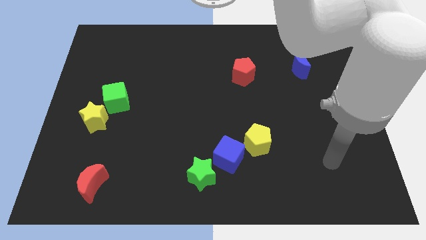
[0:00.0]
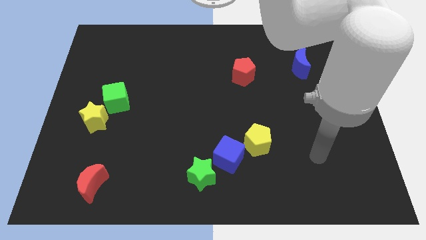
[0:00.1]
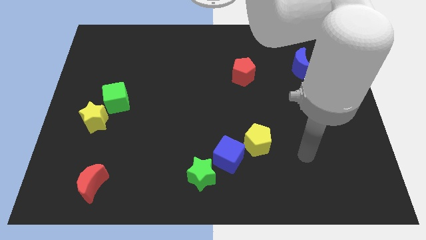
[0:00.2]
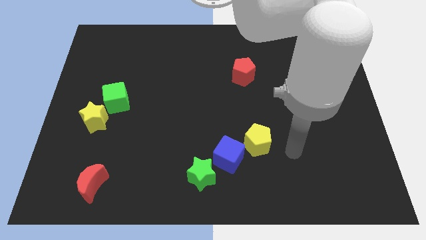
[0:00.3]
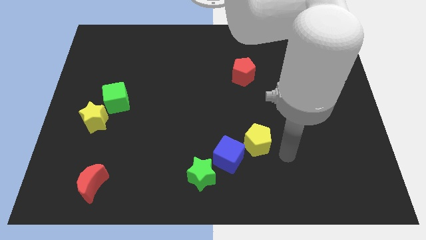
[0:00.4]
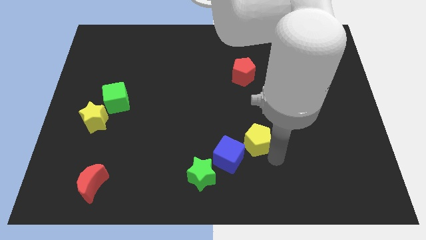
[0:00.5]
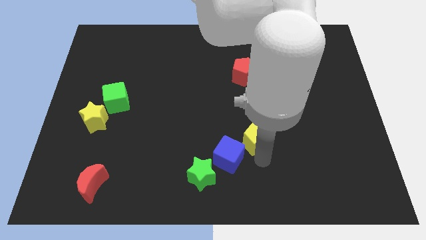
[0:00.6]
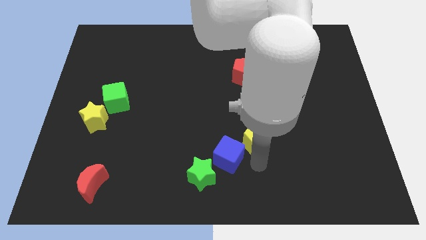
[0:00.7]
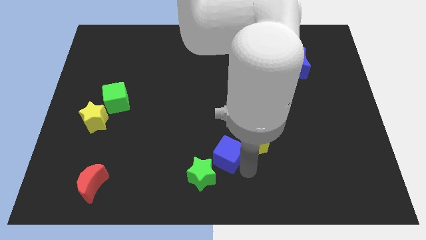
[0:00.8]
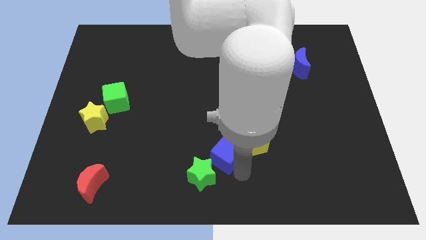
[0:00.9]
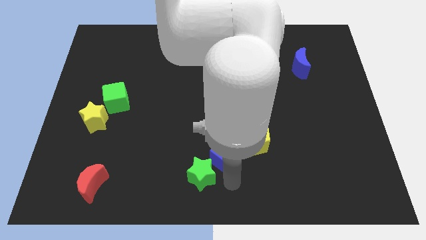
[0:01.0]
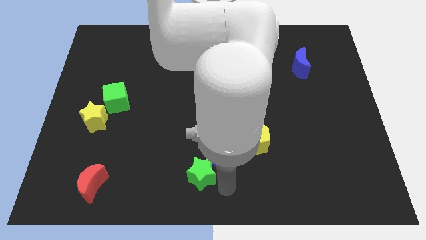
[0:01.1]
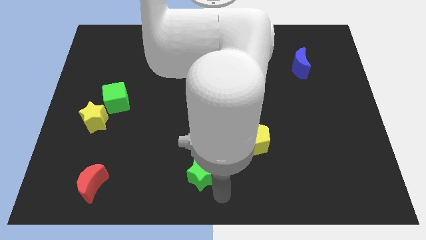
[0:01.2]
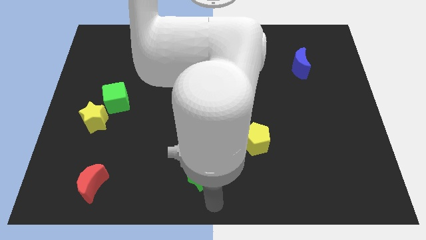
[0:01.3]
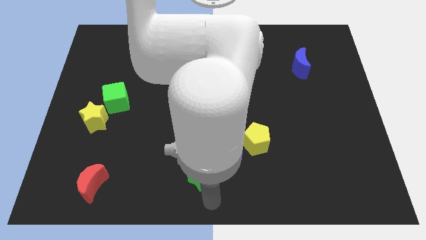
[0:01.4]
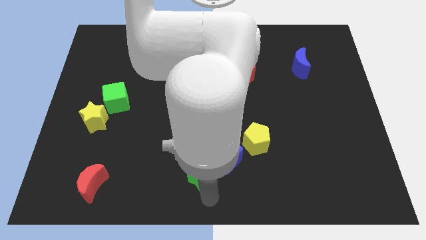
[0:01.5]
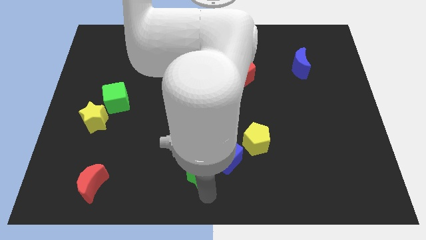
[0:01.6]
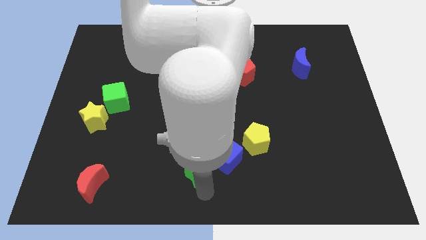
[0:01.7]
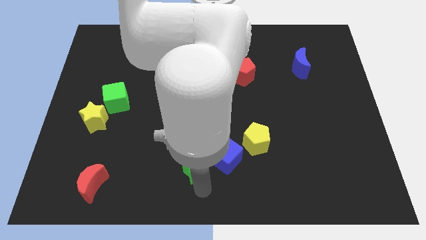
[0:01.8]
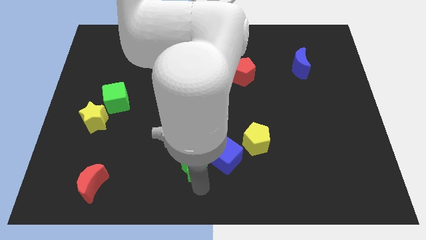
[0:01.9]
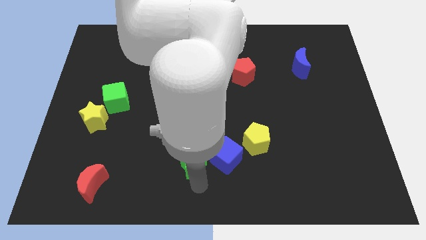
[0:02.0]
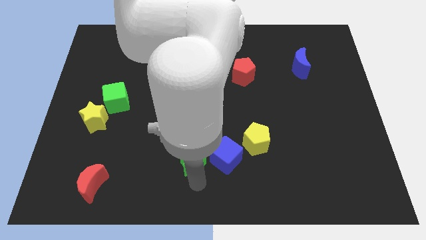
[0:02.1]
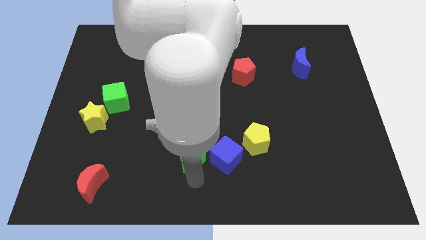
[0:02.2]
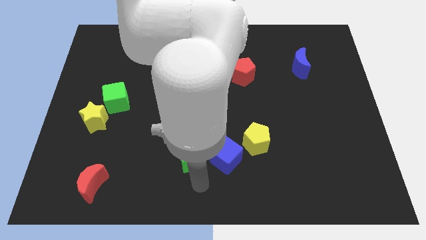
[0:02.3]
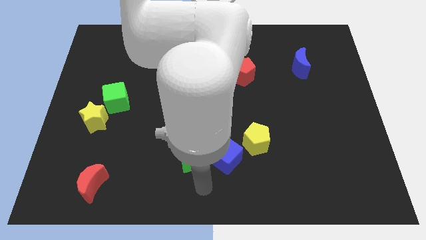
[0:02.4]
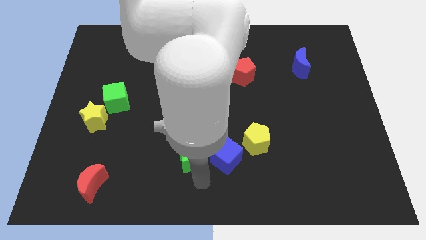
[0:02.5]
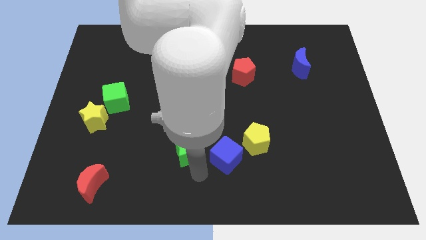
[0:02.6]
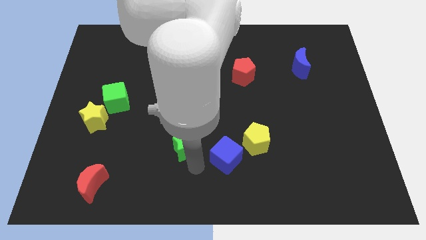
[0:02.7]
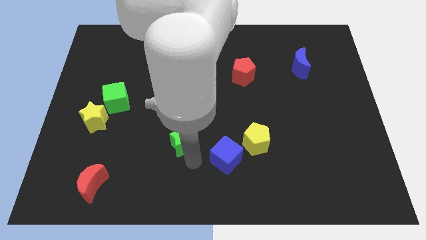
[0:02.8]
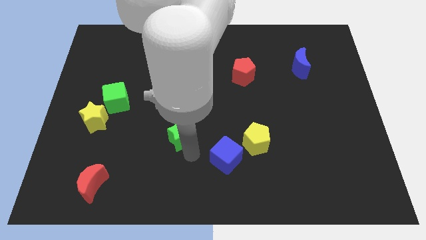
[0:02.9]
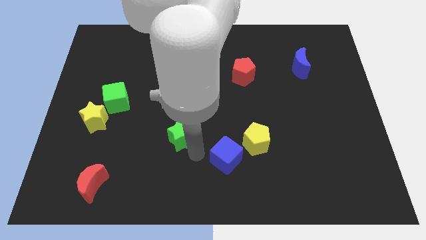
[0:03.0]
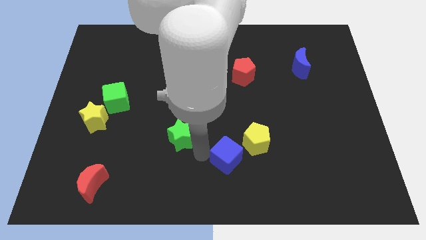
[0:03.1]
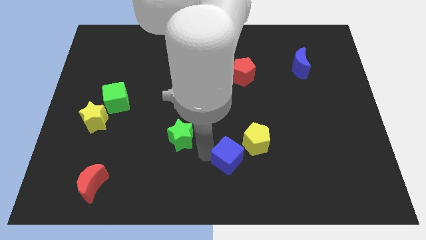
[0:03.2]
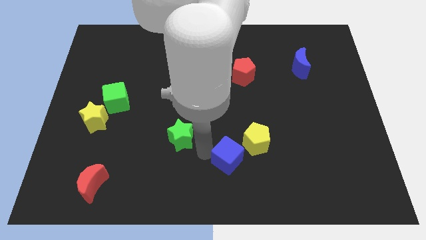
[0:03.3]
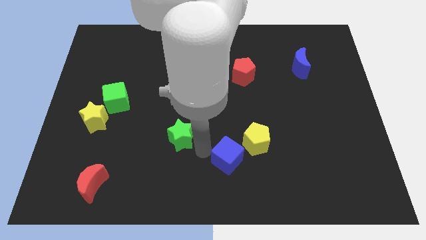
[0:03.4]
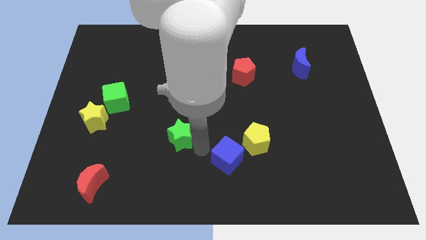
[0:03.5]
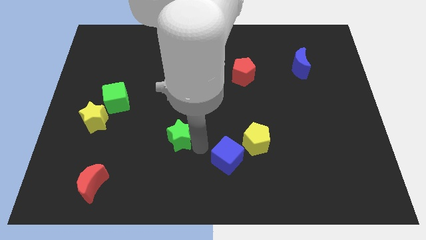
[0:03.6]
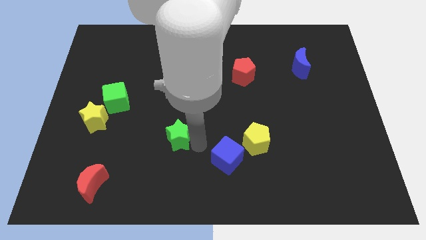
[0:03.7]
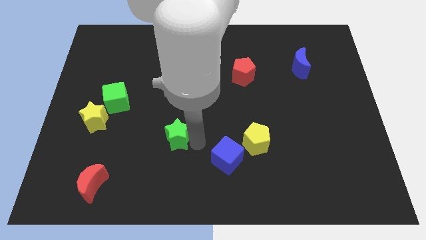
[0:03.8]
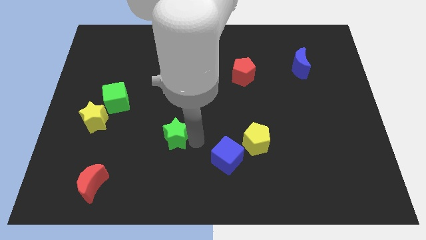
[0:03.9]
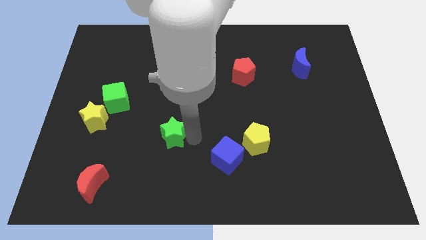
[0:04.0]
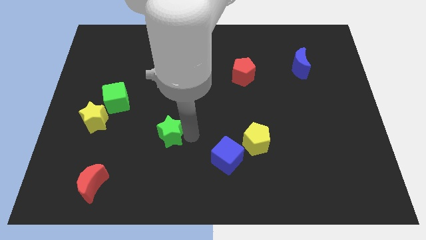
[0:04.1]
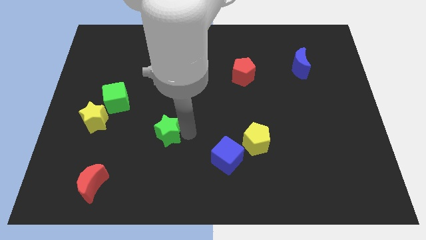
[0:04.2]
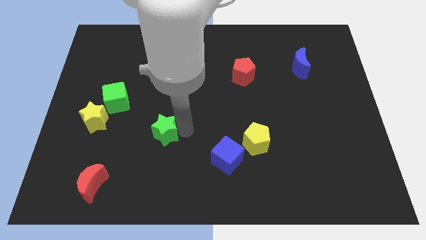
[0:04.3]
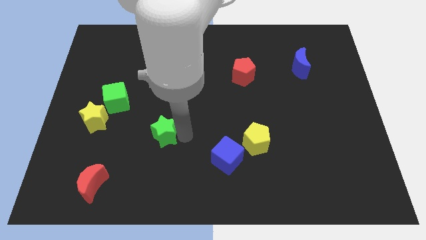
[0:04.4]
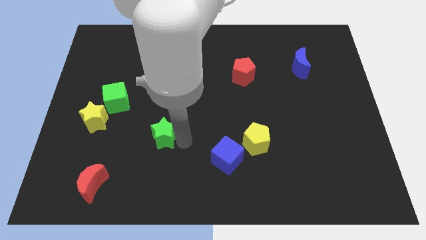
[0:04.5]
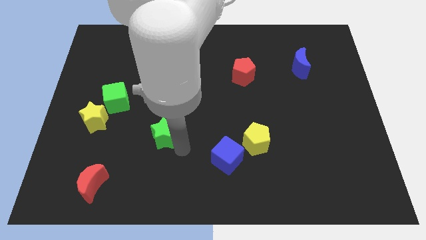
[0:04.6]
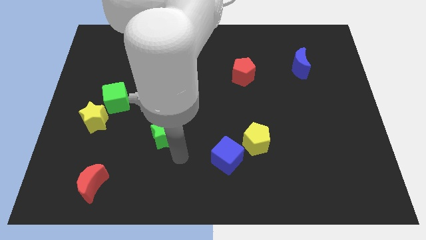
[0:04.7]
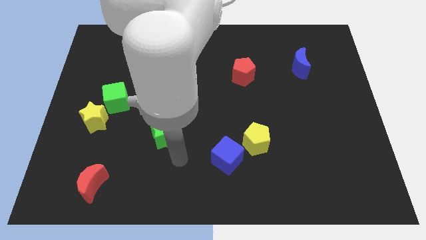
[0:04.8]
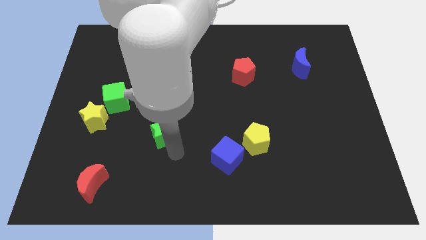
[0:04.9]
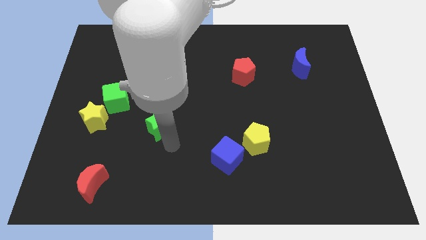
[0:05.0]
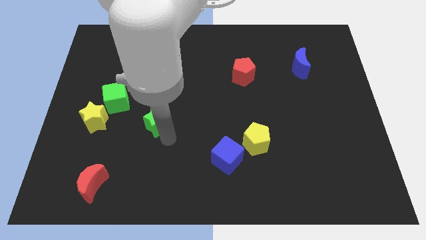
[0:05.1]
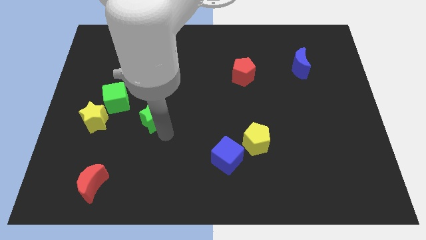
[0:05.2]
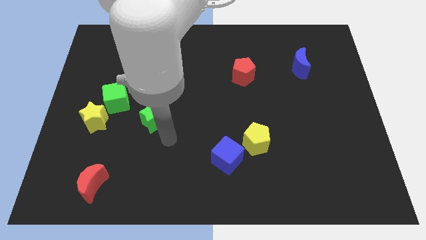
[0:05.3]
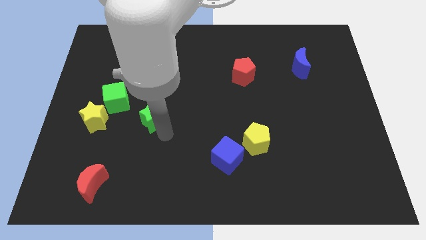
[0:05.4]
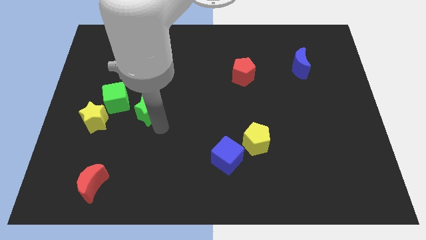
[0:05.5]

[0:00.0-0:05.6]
push the green star upwards and to the left

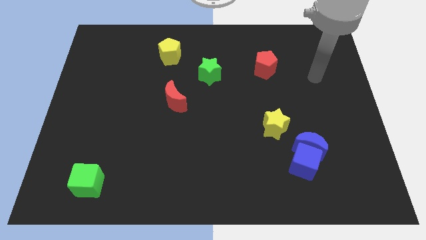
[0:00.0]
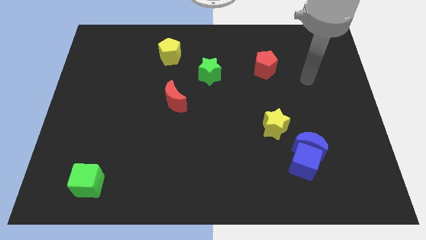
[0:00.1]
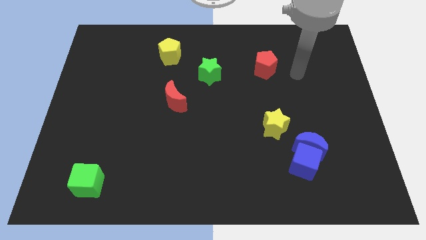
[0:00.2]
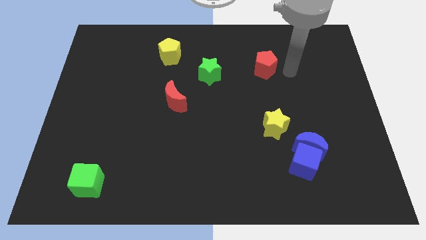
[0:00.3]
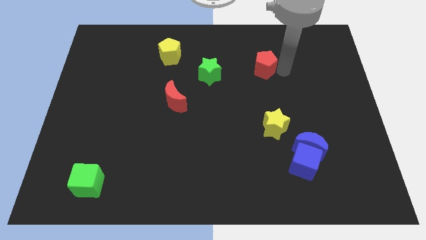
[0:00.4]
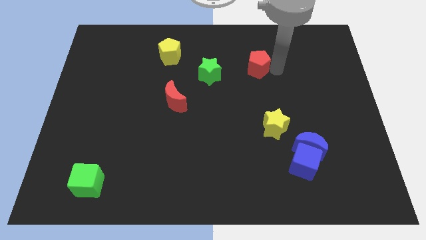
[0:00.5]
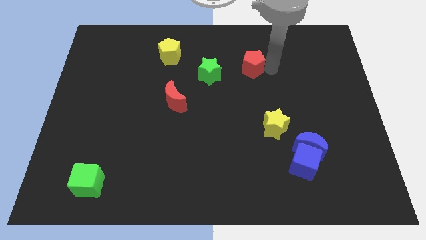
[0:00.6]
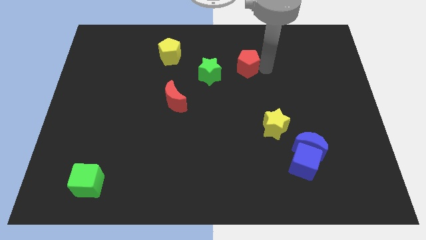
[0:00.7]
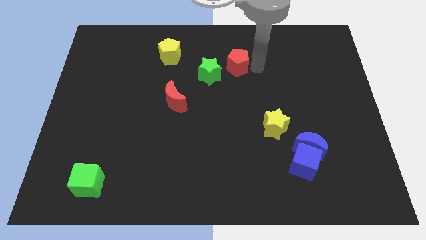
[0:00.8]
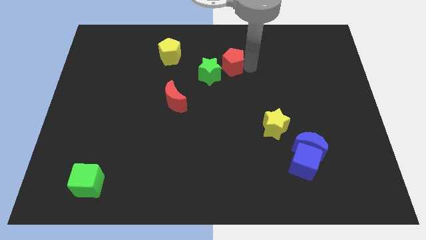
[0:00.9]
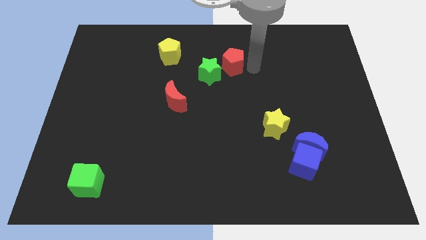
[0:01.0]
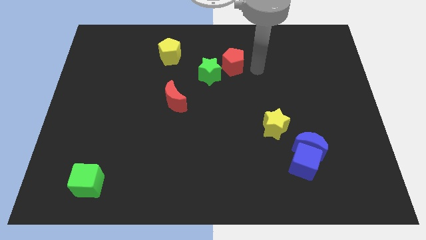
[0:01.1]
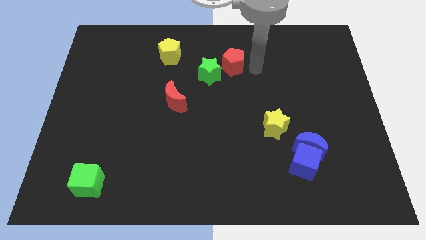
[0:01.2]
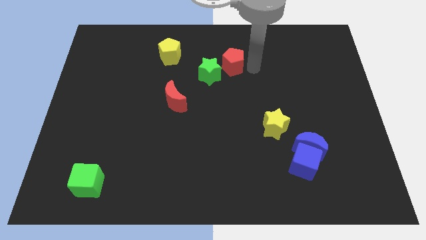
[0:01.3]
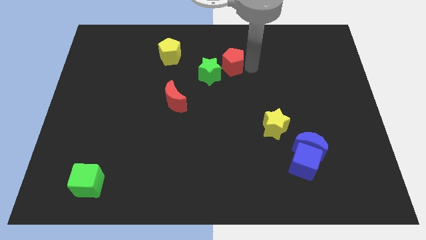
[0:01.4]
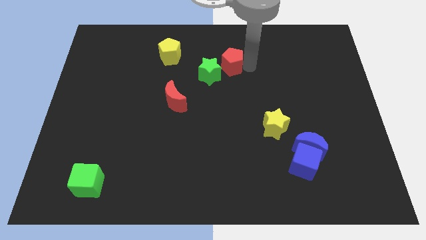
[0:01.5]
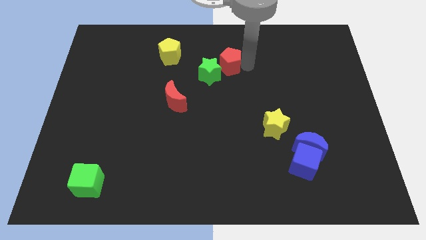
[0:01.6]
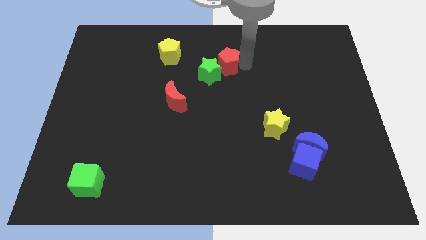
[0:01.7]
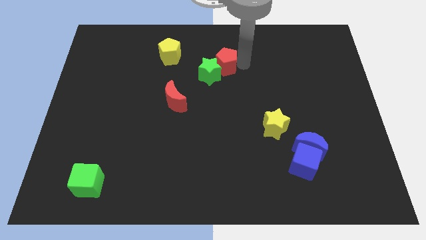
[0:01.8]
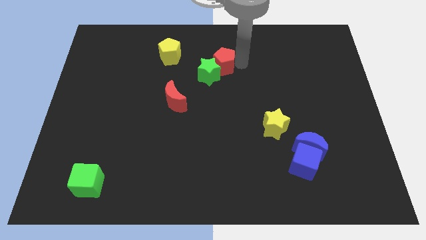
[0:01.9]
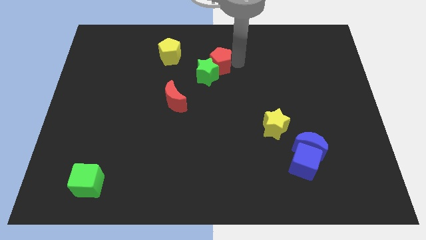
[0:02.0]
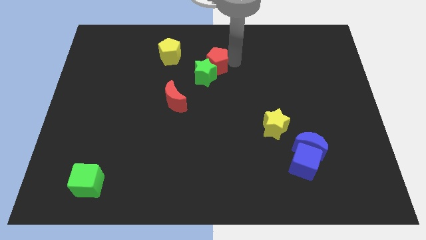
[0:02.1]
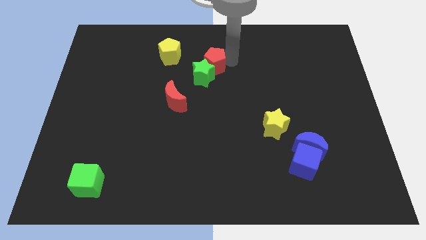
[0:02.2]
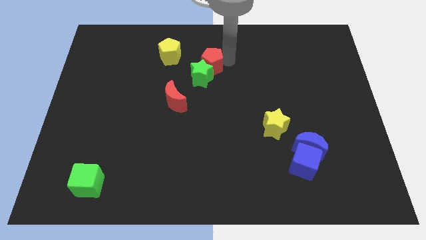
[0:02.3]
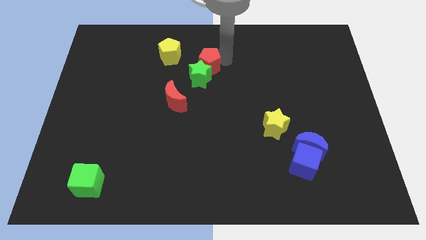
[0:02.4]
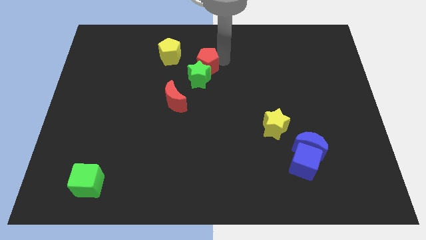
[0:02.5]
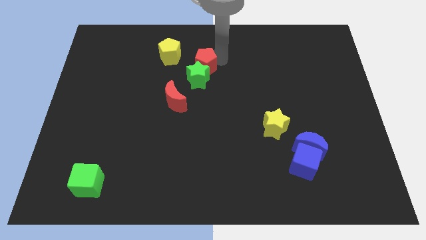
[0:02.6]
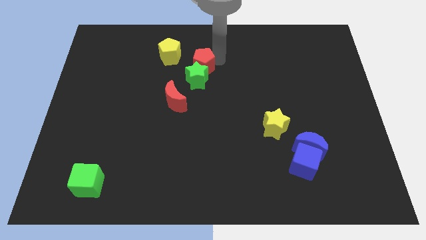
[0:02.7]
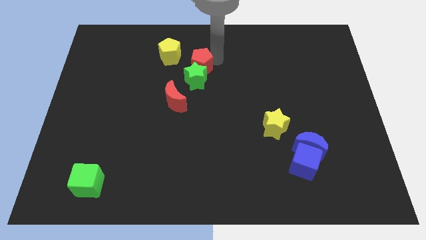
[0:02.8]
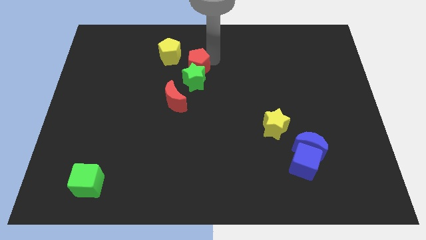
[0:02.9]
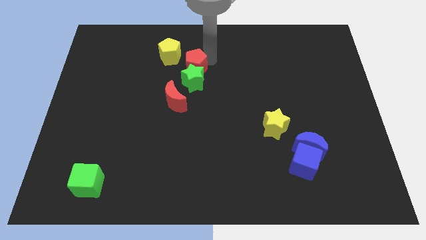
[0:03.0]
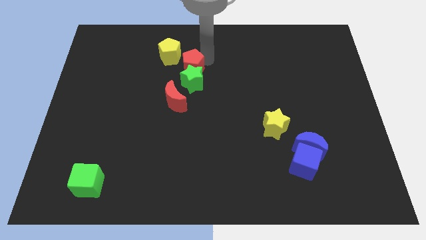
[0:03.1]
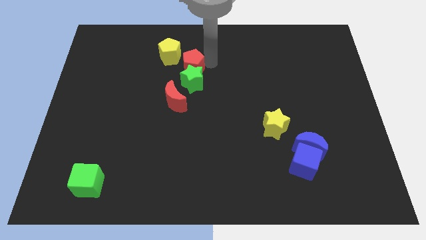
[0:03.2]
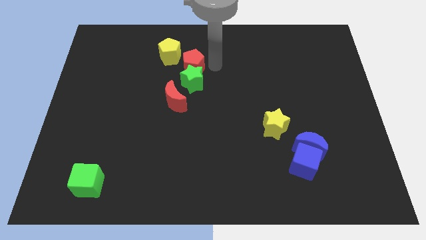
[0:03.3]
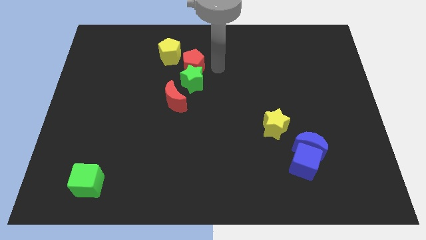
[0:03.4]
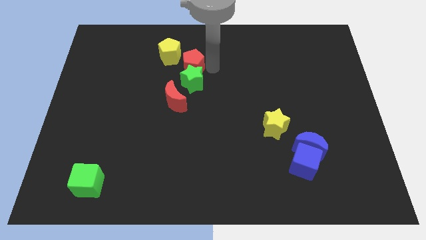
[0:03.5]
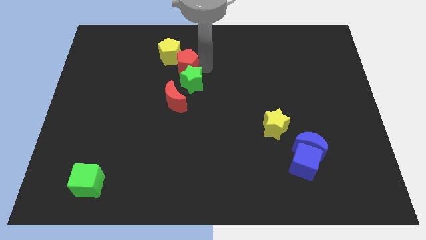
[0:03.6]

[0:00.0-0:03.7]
slide the red pentagon left
